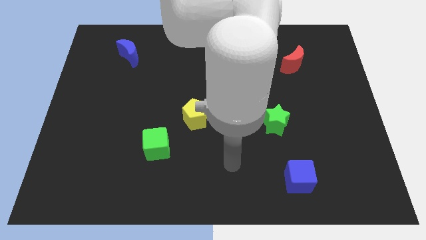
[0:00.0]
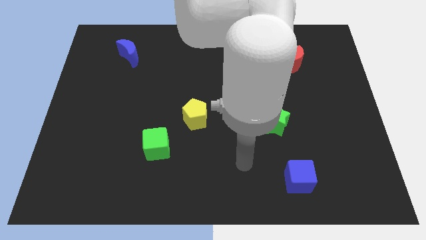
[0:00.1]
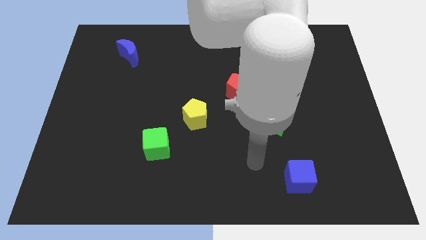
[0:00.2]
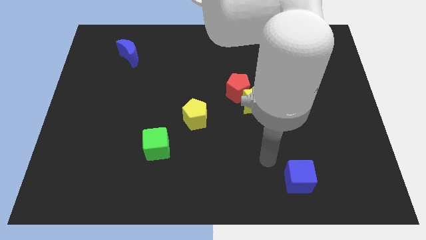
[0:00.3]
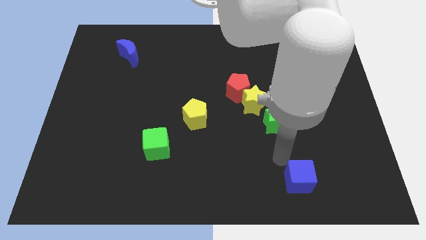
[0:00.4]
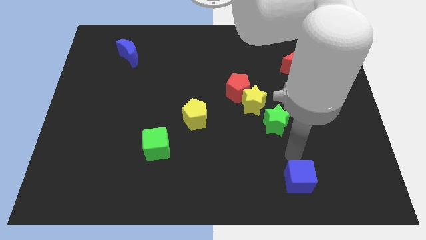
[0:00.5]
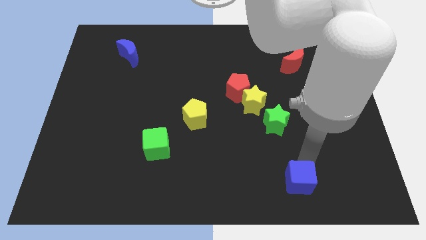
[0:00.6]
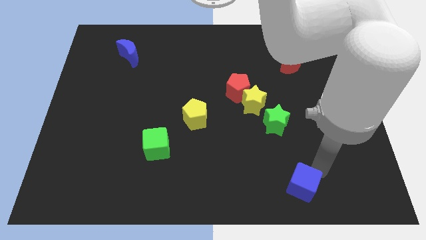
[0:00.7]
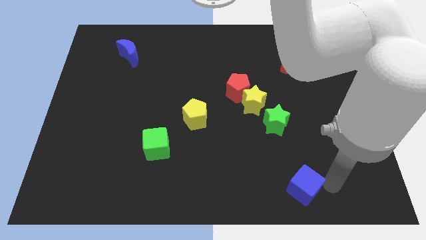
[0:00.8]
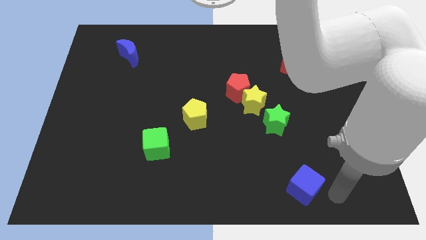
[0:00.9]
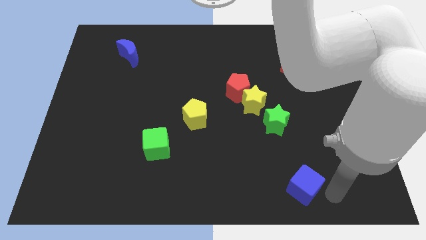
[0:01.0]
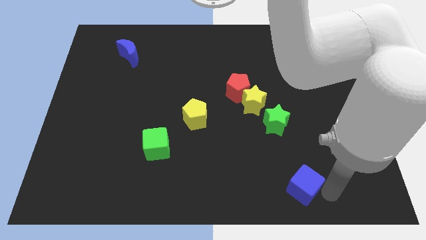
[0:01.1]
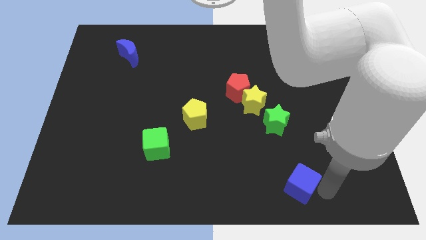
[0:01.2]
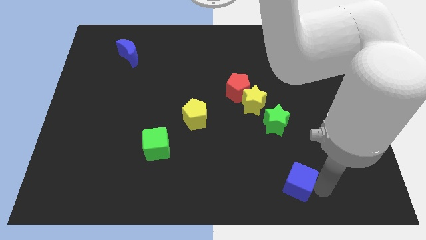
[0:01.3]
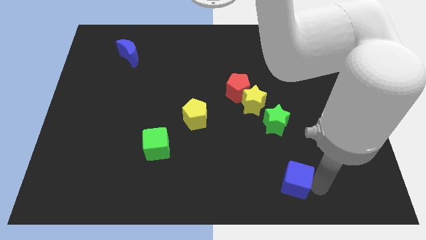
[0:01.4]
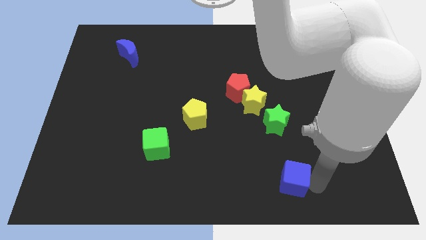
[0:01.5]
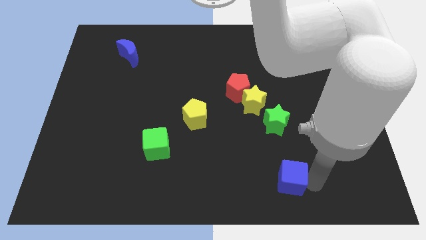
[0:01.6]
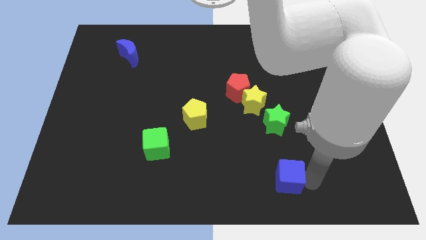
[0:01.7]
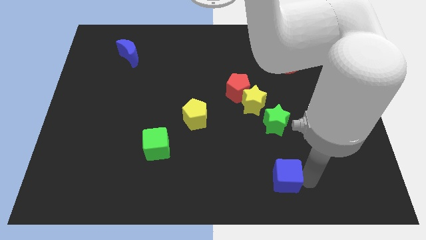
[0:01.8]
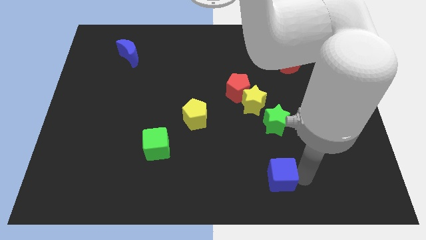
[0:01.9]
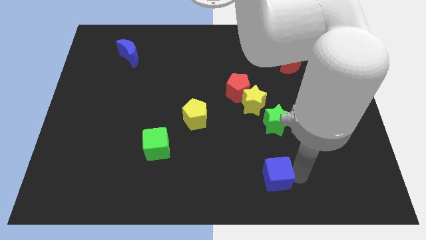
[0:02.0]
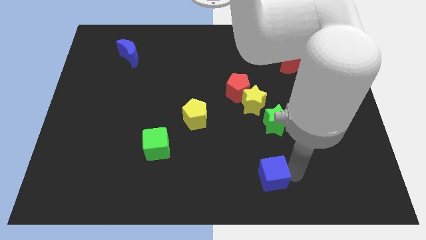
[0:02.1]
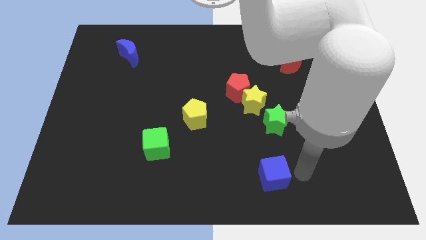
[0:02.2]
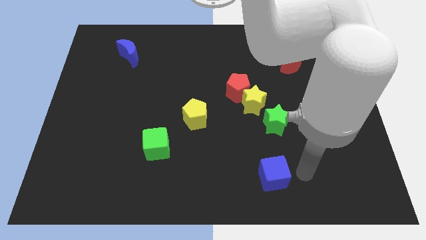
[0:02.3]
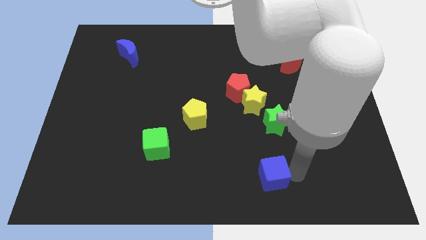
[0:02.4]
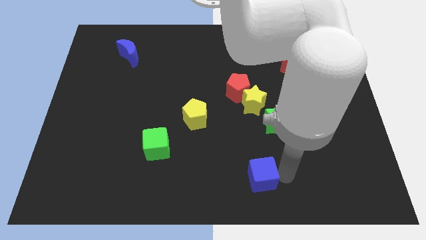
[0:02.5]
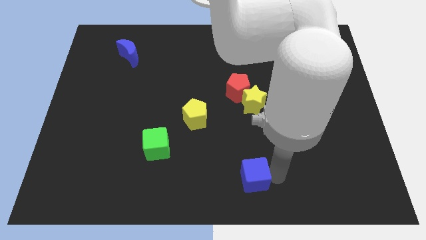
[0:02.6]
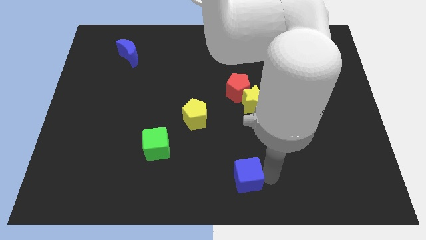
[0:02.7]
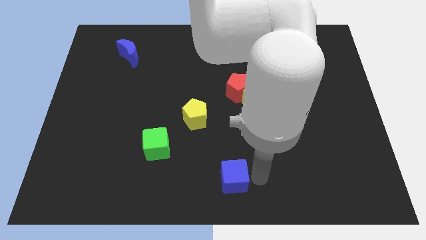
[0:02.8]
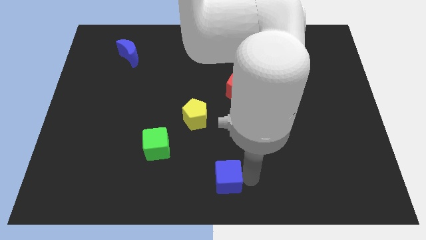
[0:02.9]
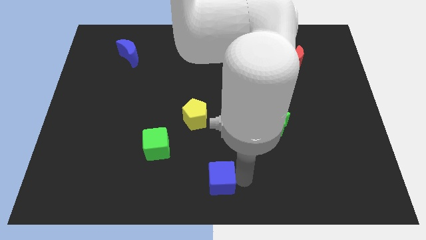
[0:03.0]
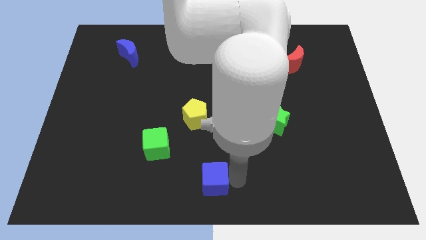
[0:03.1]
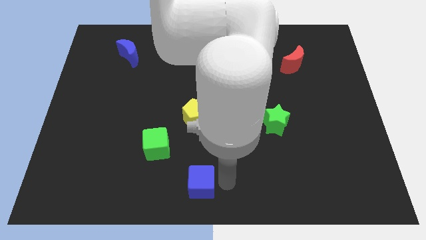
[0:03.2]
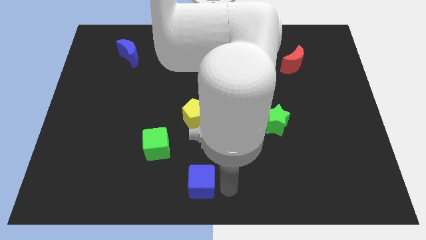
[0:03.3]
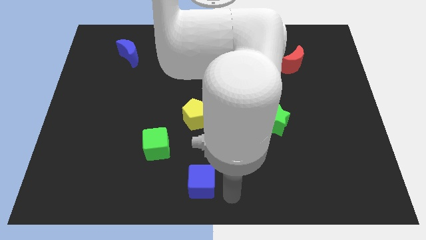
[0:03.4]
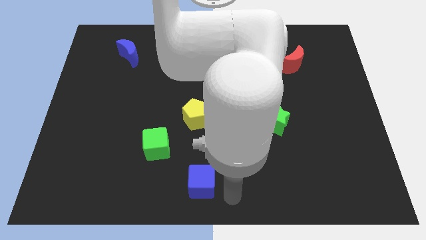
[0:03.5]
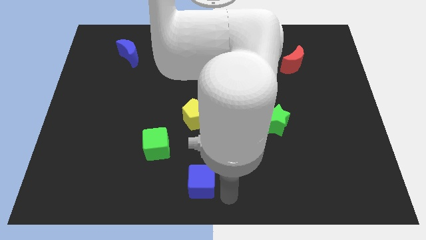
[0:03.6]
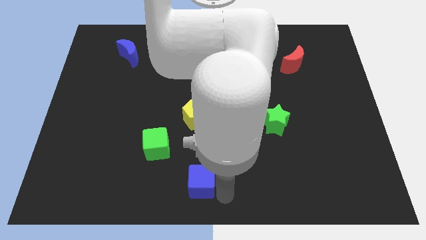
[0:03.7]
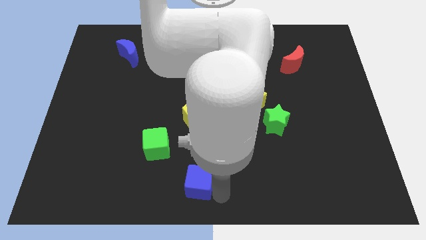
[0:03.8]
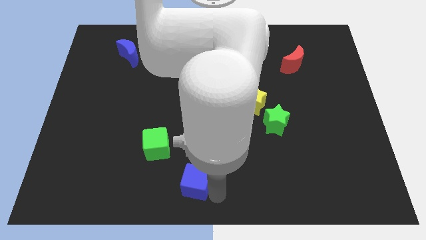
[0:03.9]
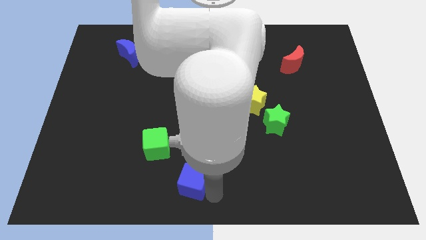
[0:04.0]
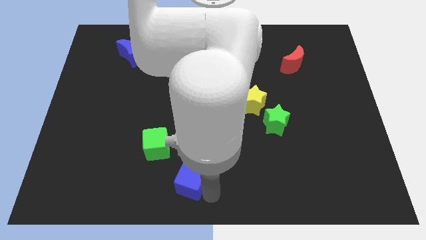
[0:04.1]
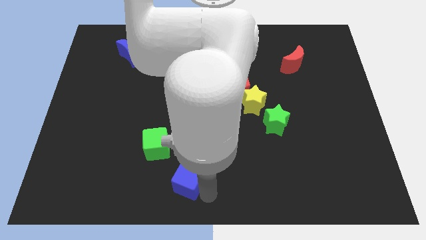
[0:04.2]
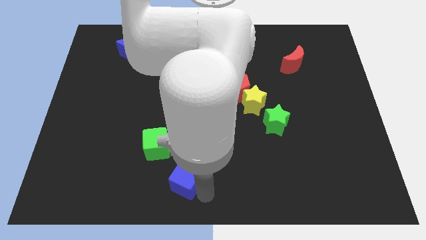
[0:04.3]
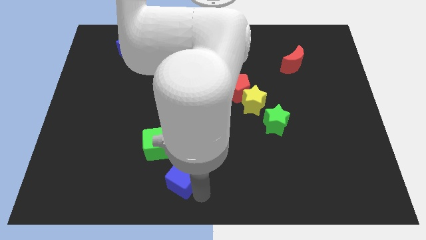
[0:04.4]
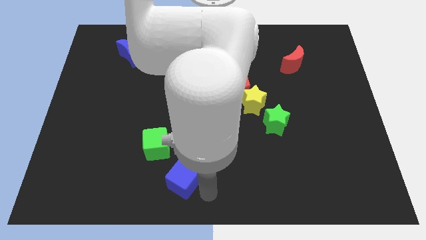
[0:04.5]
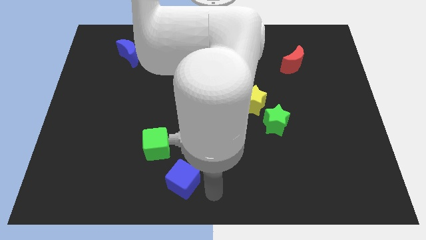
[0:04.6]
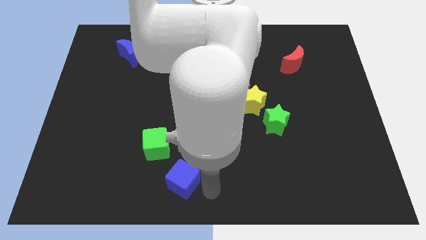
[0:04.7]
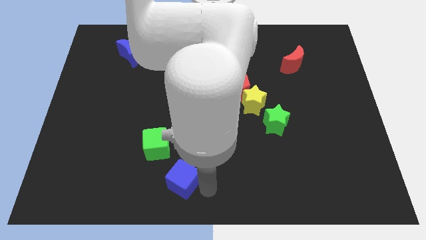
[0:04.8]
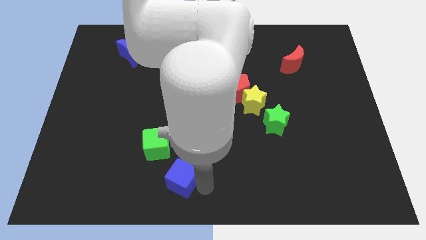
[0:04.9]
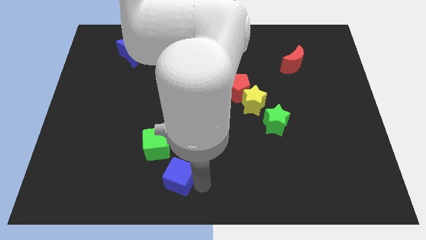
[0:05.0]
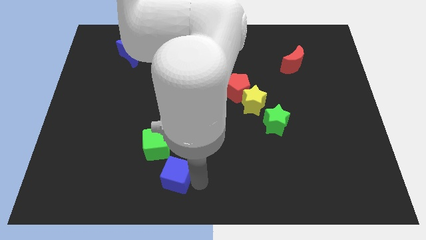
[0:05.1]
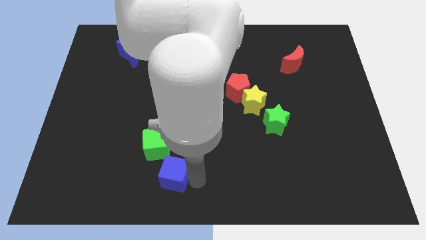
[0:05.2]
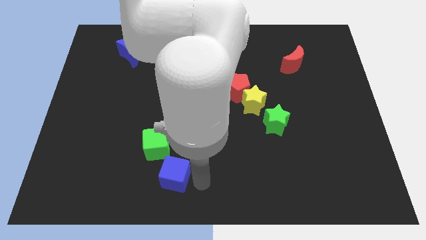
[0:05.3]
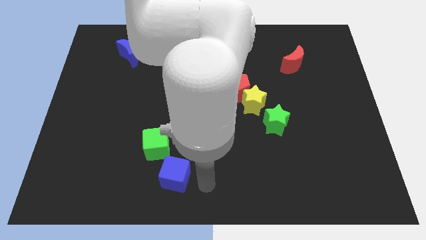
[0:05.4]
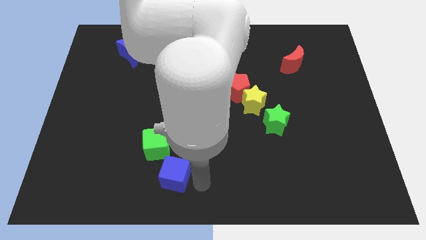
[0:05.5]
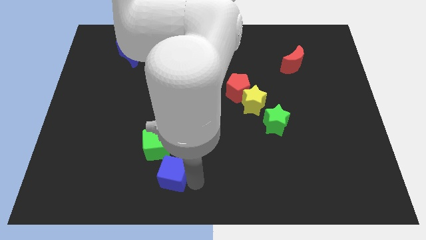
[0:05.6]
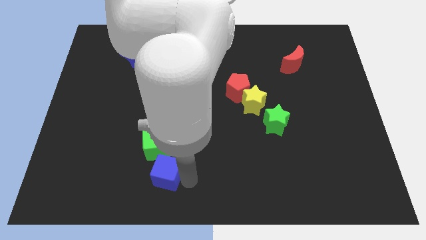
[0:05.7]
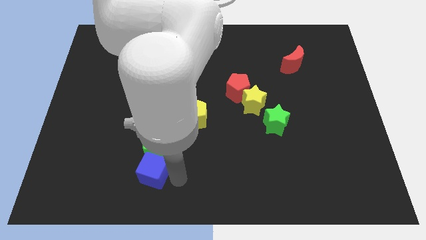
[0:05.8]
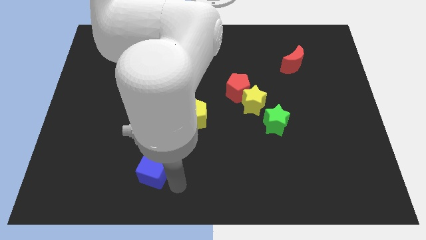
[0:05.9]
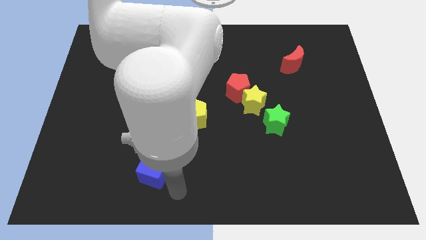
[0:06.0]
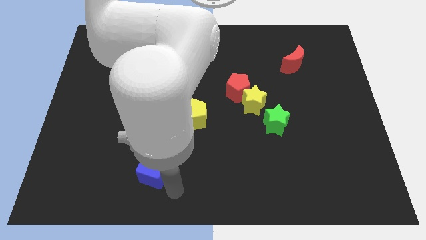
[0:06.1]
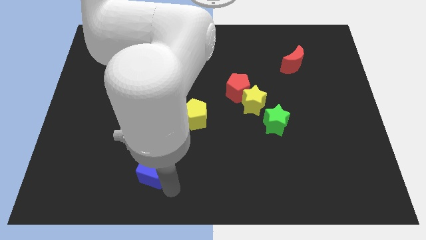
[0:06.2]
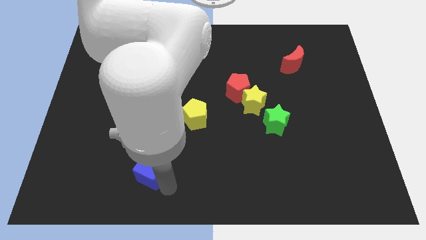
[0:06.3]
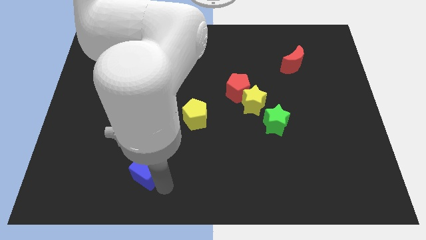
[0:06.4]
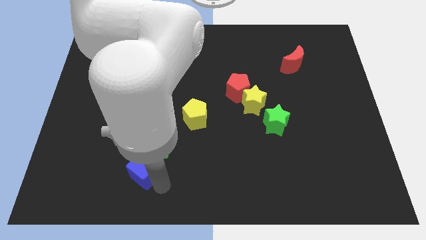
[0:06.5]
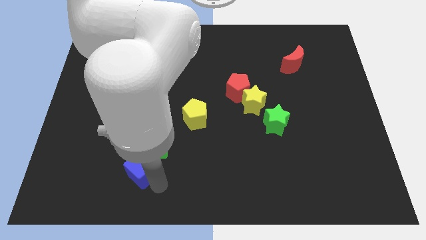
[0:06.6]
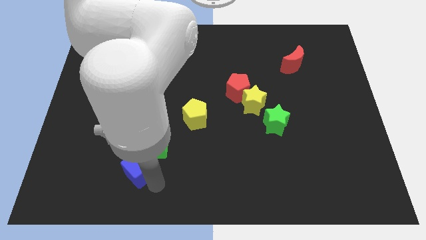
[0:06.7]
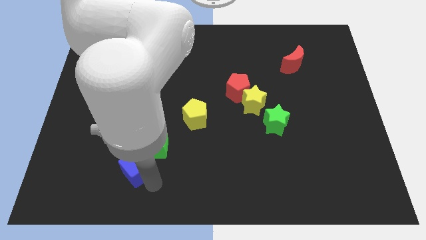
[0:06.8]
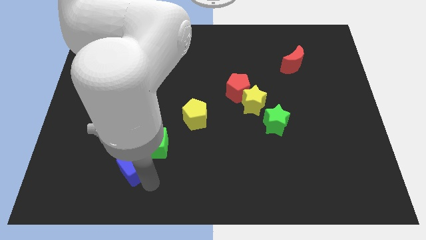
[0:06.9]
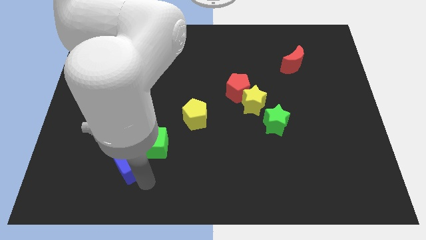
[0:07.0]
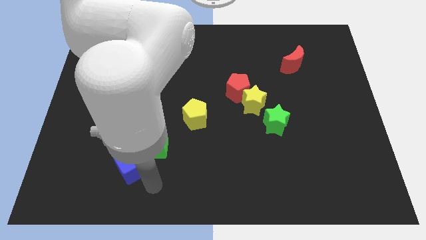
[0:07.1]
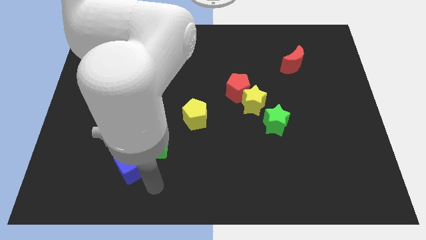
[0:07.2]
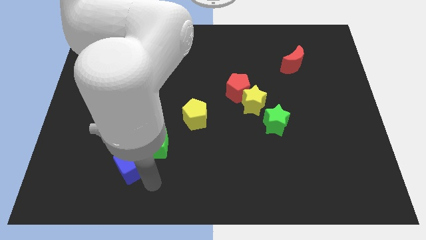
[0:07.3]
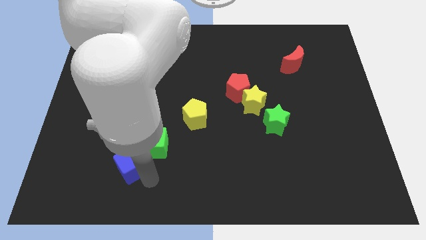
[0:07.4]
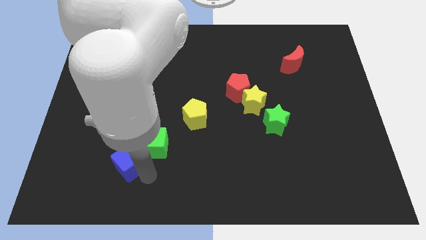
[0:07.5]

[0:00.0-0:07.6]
slide the blue cube left of the green cube
